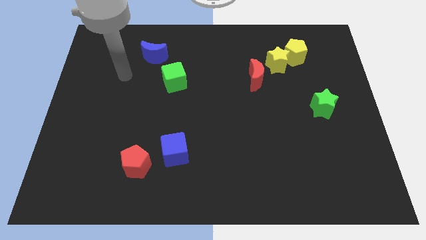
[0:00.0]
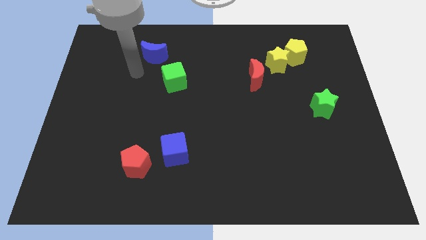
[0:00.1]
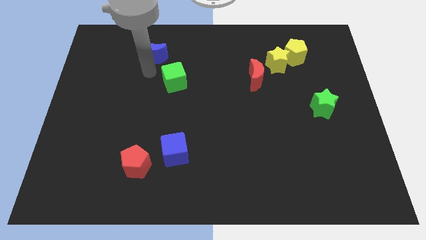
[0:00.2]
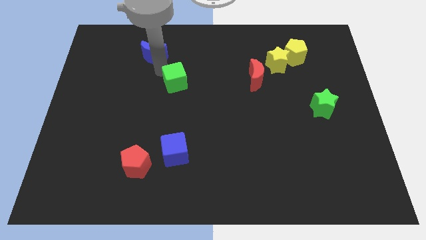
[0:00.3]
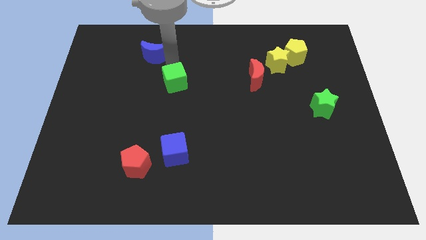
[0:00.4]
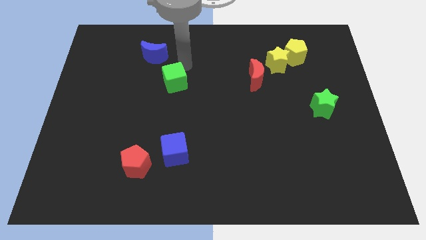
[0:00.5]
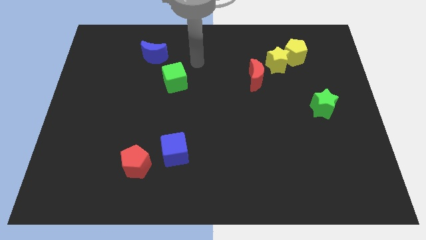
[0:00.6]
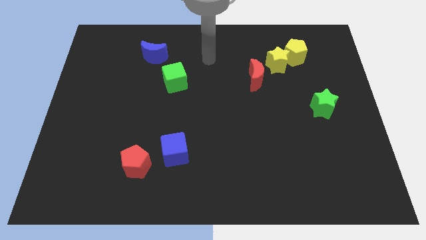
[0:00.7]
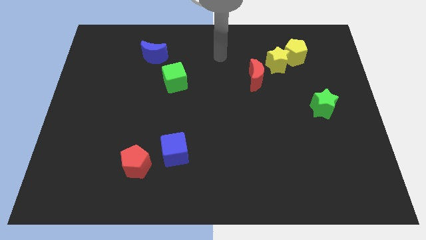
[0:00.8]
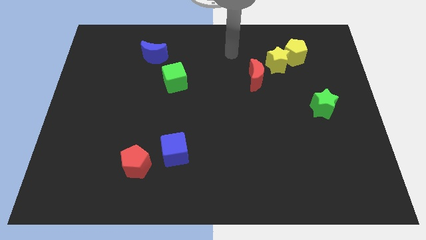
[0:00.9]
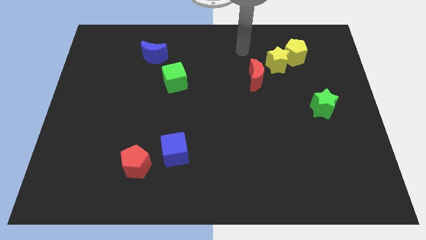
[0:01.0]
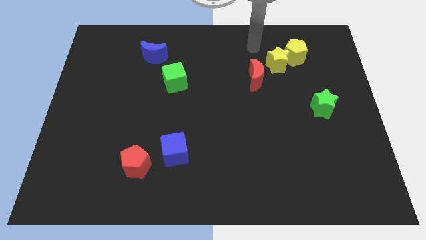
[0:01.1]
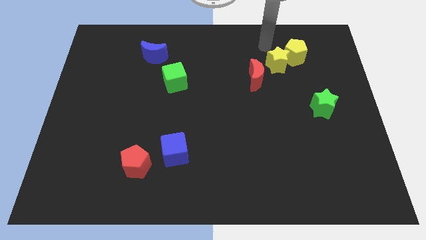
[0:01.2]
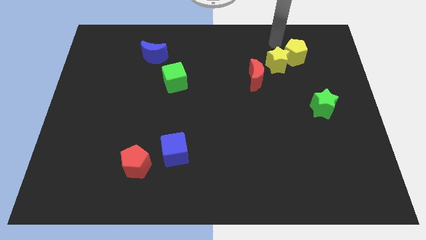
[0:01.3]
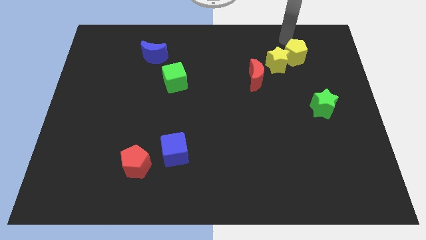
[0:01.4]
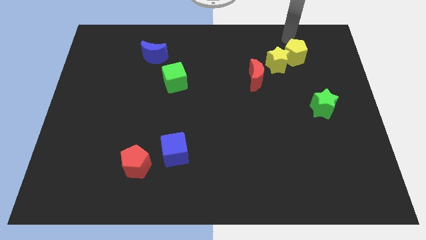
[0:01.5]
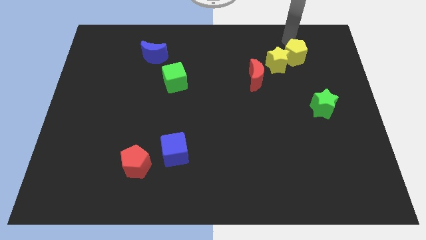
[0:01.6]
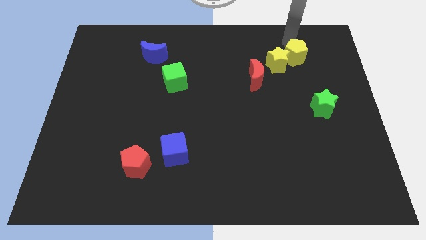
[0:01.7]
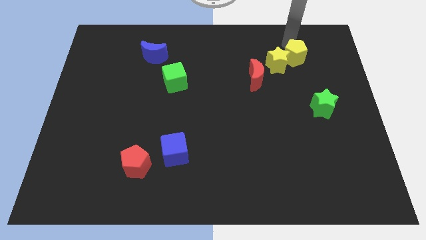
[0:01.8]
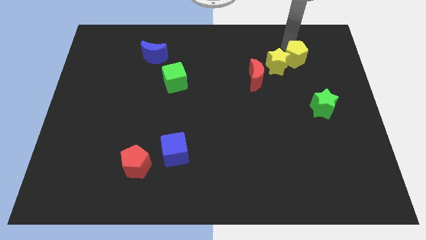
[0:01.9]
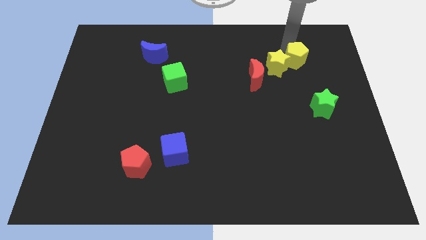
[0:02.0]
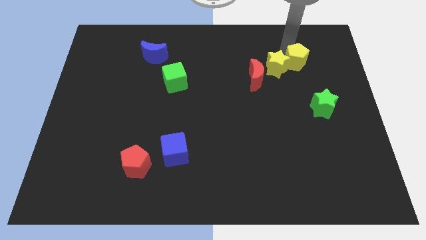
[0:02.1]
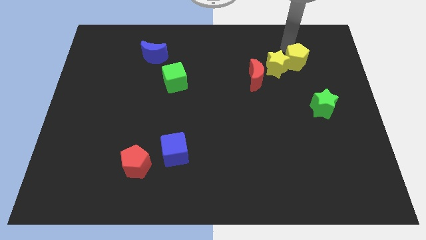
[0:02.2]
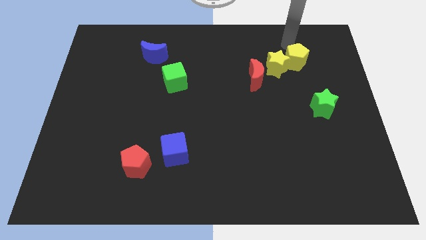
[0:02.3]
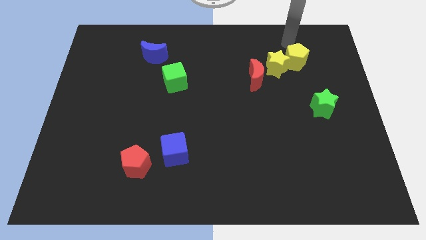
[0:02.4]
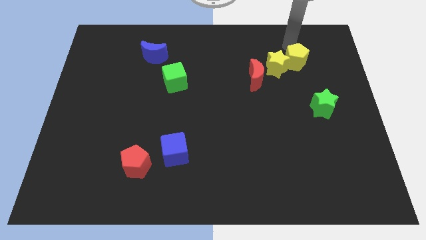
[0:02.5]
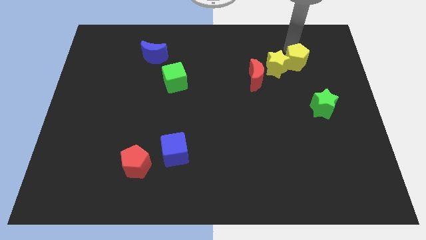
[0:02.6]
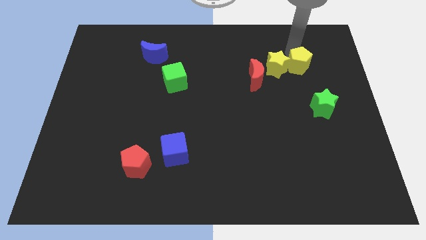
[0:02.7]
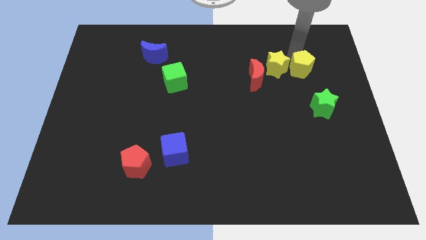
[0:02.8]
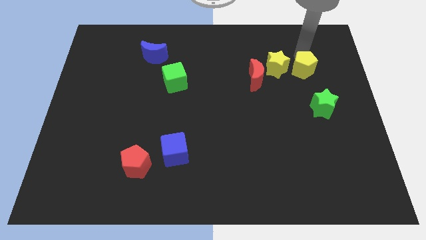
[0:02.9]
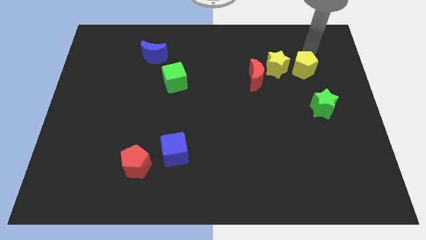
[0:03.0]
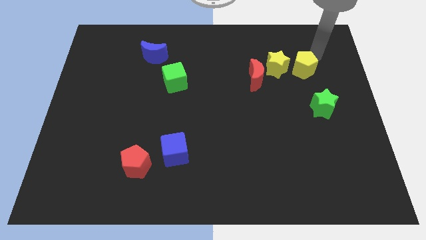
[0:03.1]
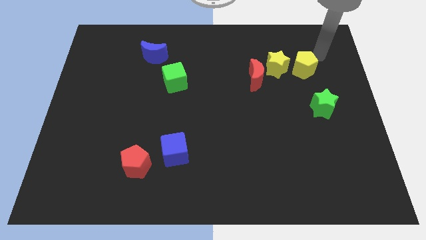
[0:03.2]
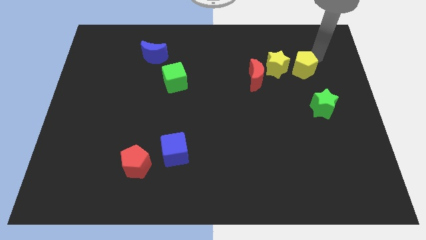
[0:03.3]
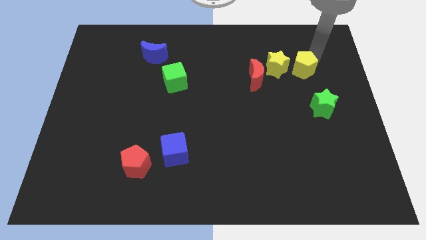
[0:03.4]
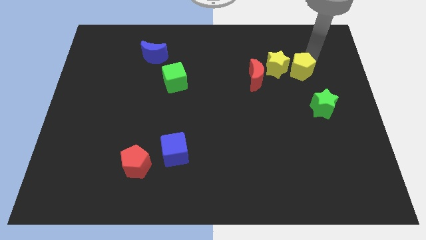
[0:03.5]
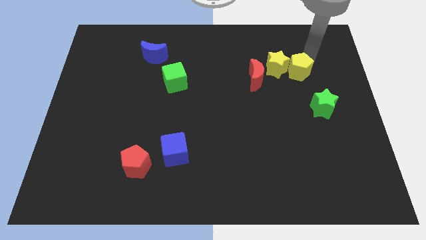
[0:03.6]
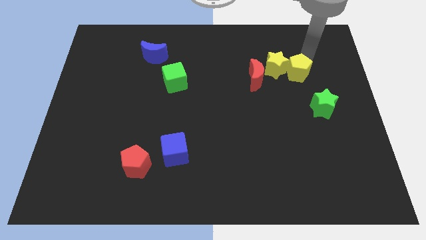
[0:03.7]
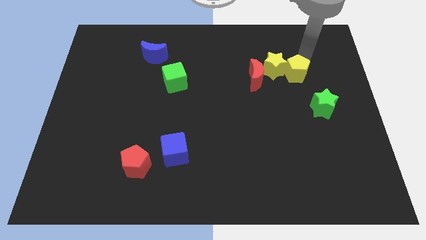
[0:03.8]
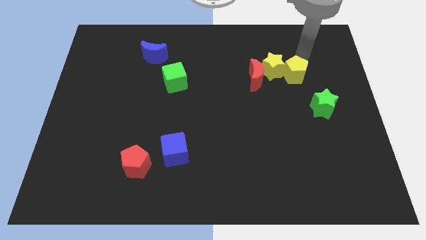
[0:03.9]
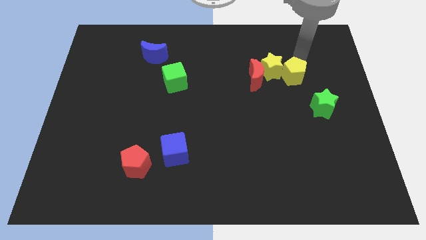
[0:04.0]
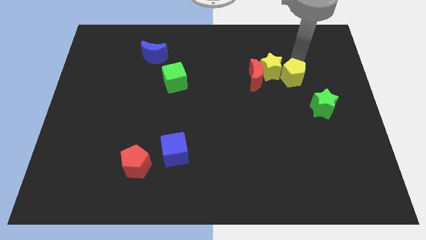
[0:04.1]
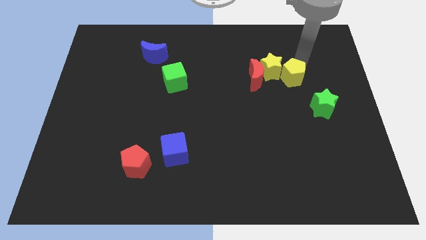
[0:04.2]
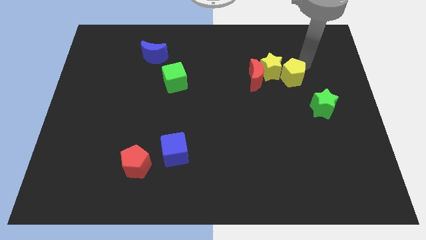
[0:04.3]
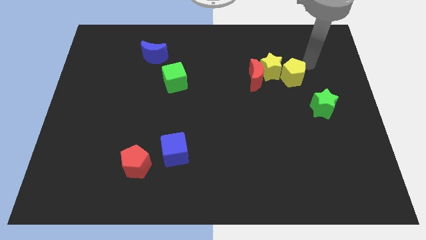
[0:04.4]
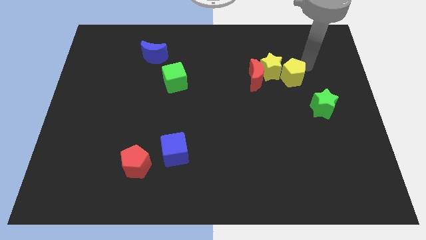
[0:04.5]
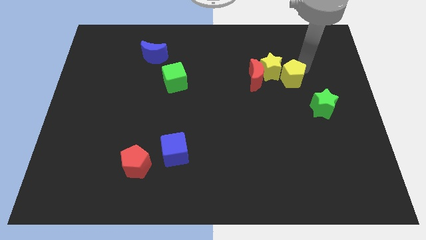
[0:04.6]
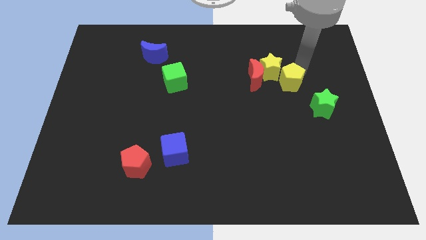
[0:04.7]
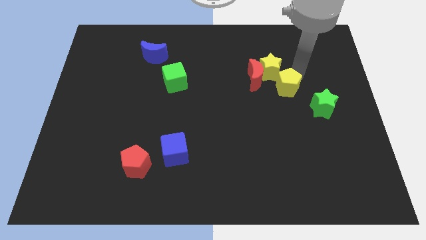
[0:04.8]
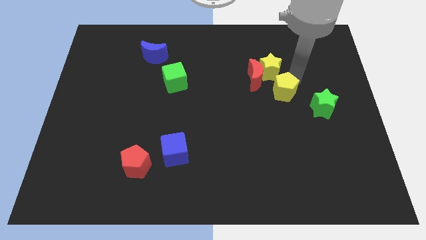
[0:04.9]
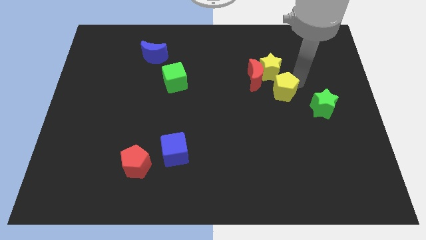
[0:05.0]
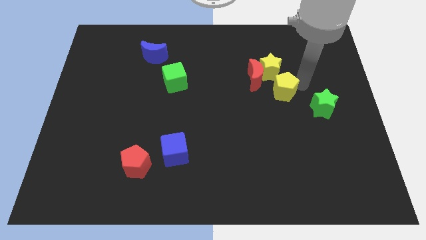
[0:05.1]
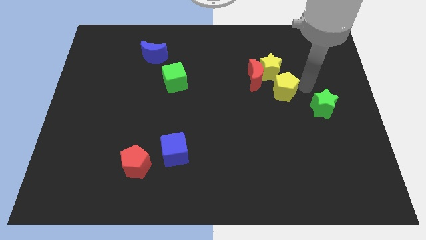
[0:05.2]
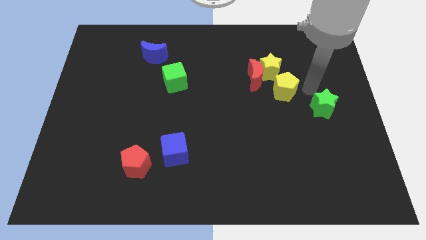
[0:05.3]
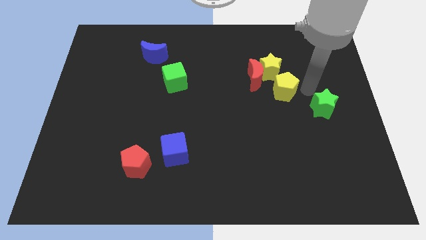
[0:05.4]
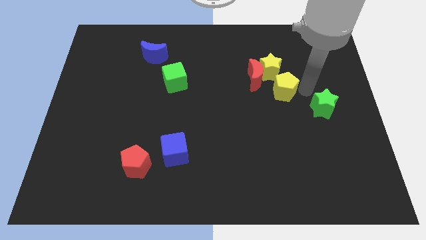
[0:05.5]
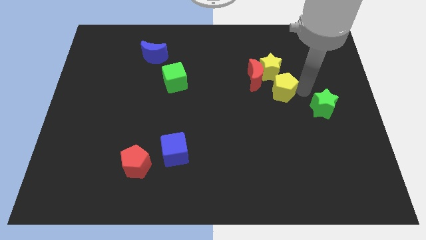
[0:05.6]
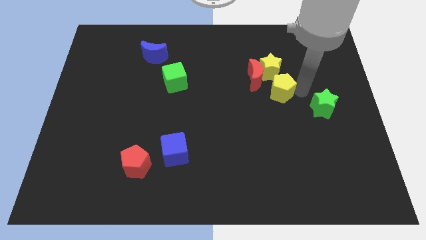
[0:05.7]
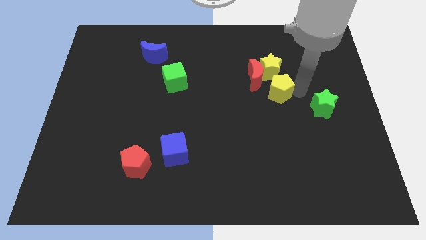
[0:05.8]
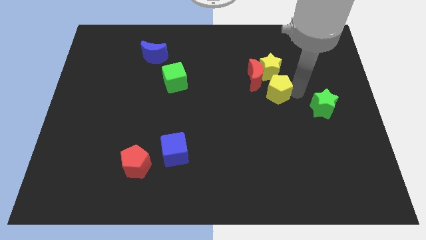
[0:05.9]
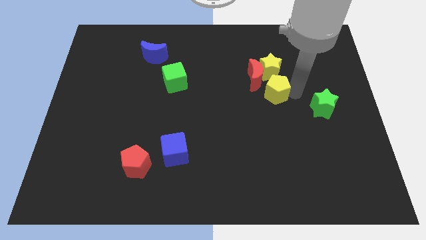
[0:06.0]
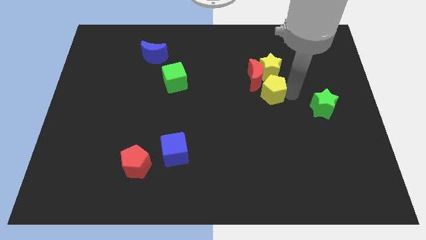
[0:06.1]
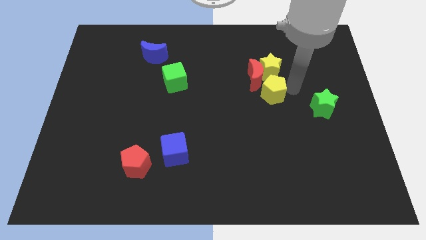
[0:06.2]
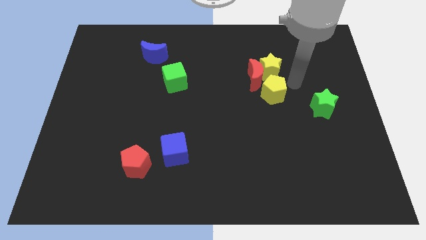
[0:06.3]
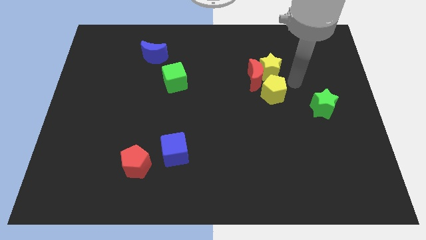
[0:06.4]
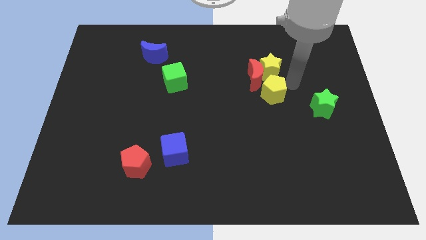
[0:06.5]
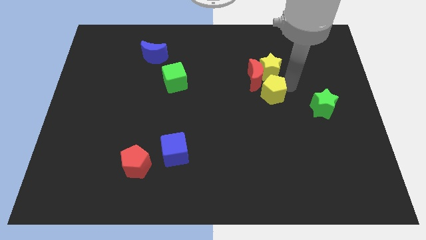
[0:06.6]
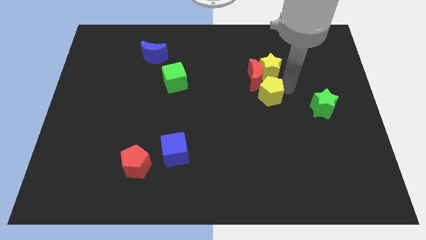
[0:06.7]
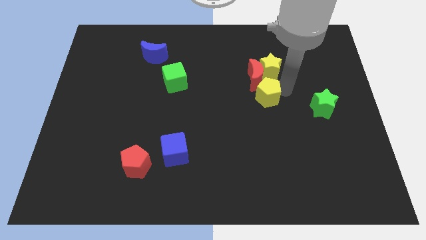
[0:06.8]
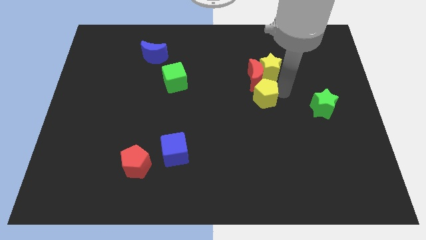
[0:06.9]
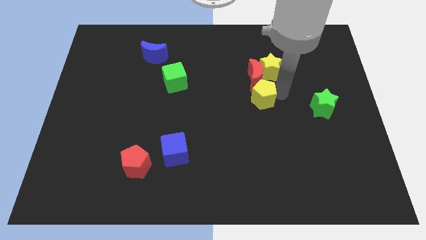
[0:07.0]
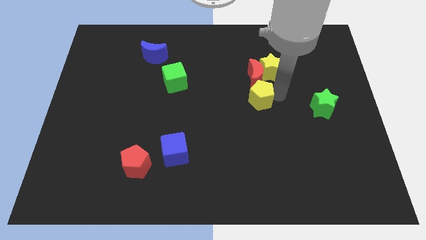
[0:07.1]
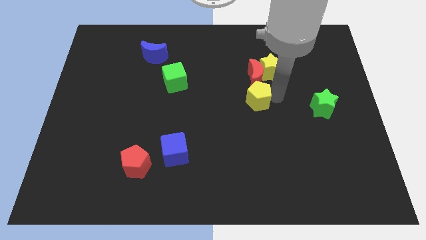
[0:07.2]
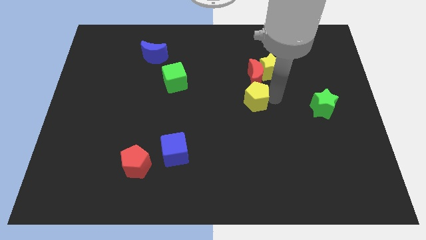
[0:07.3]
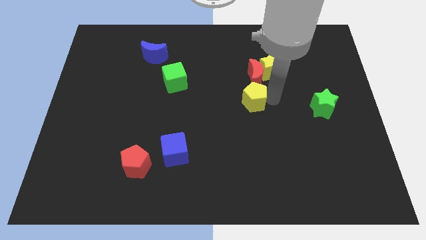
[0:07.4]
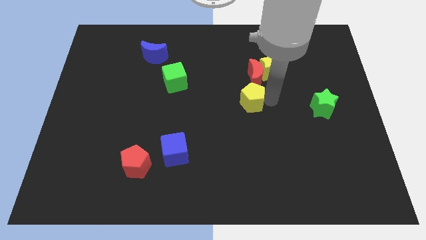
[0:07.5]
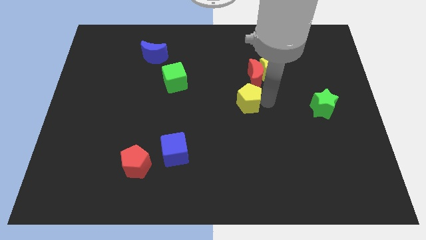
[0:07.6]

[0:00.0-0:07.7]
push the yellow pentagon downwards and to the left

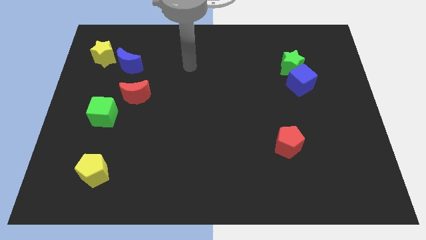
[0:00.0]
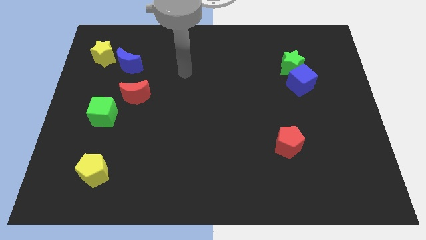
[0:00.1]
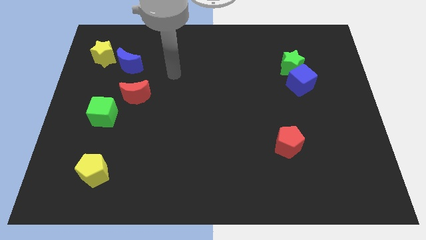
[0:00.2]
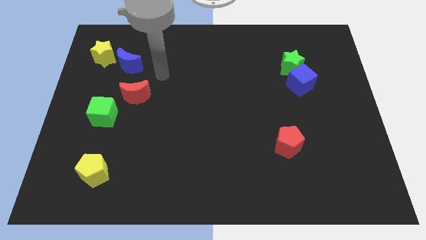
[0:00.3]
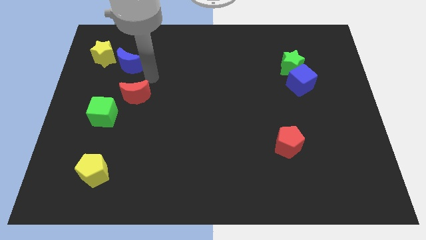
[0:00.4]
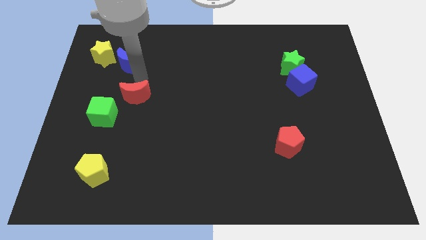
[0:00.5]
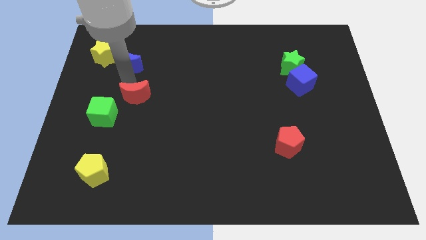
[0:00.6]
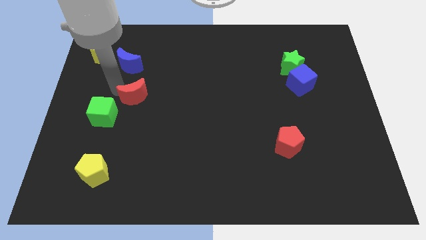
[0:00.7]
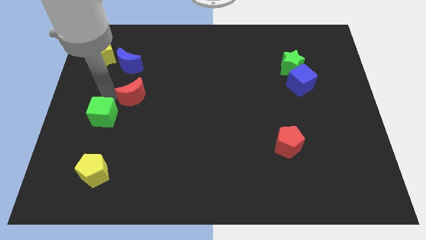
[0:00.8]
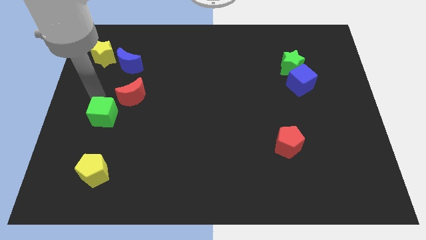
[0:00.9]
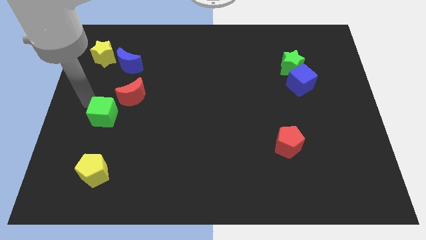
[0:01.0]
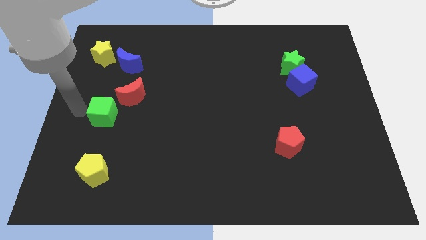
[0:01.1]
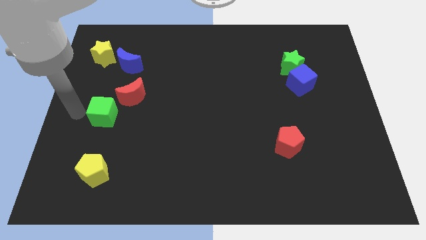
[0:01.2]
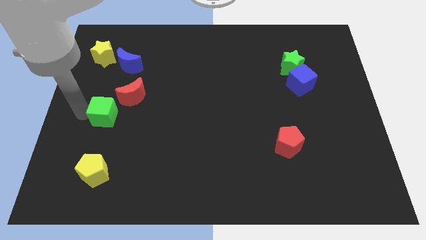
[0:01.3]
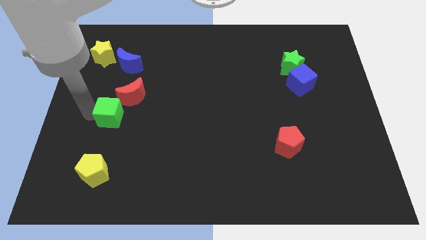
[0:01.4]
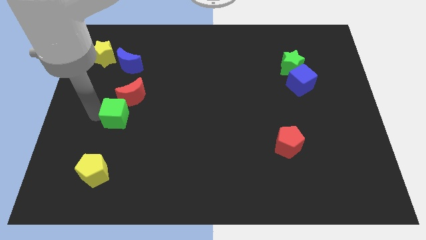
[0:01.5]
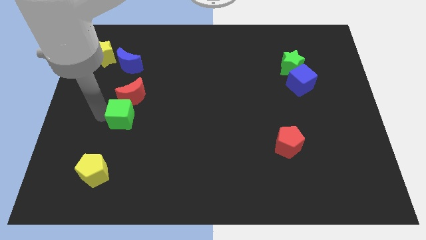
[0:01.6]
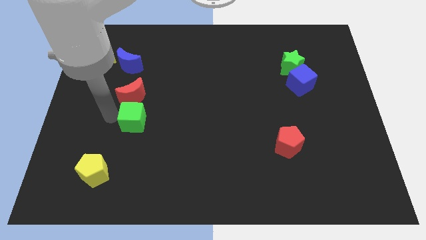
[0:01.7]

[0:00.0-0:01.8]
slide the green cube to the right a little
